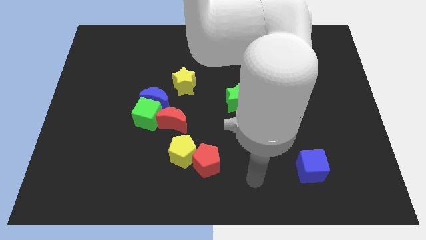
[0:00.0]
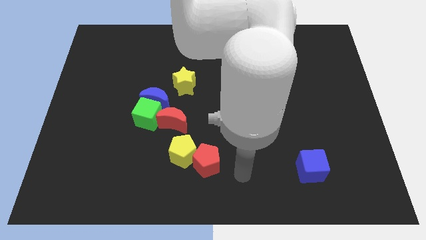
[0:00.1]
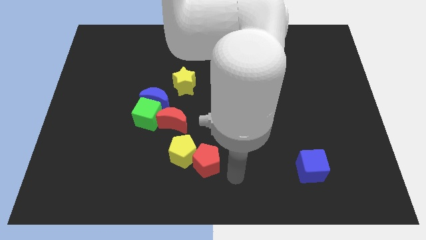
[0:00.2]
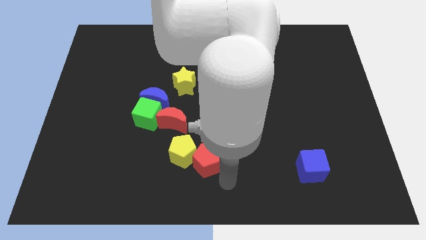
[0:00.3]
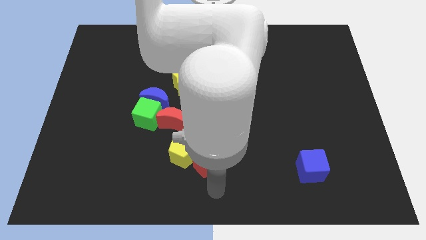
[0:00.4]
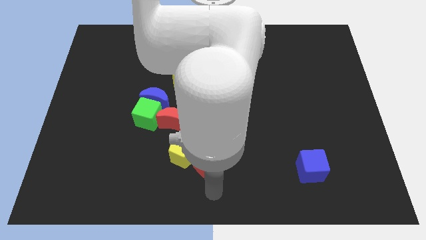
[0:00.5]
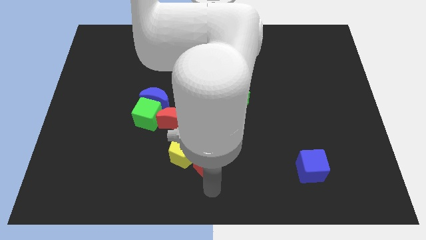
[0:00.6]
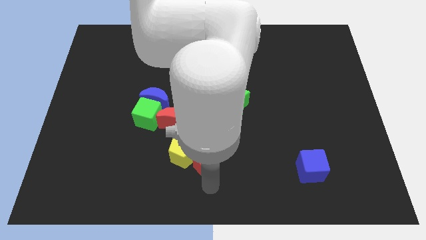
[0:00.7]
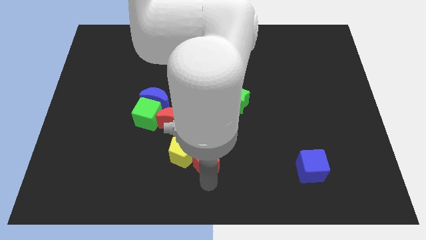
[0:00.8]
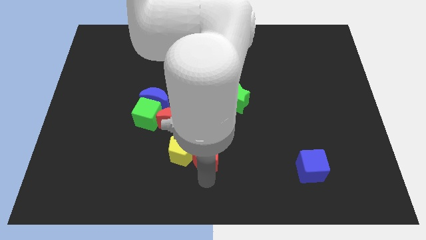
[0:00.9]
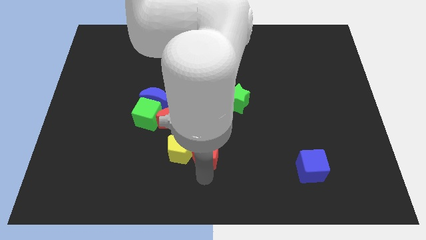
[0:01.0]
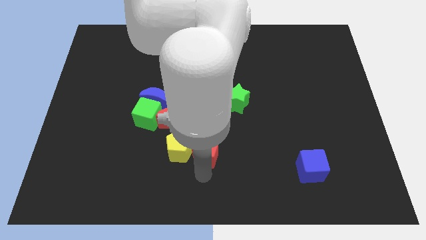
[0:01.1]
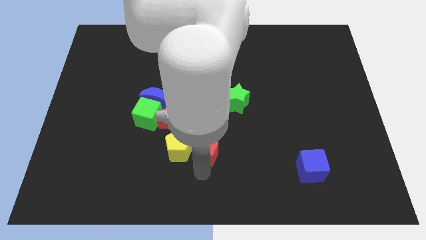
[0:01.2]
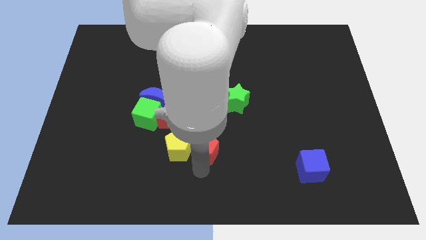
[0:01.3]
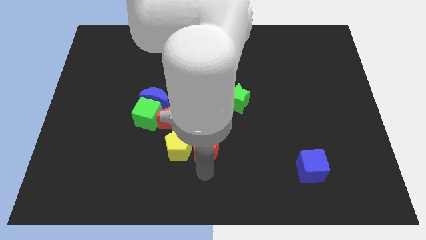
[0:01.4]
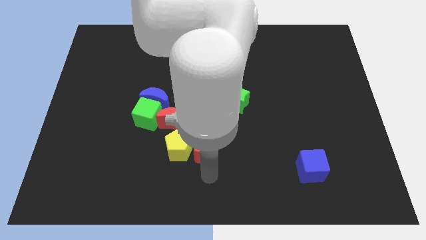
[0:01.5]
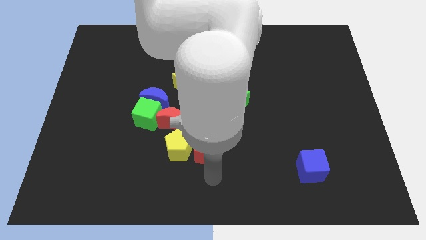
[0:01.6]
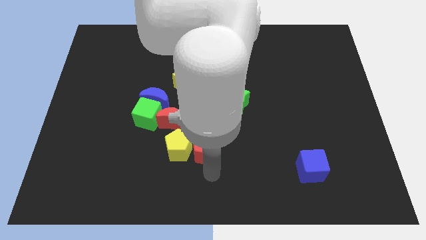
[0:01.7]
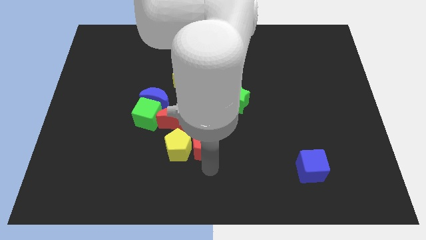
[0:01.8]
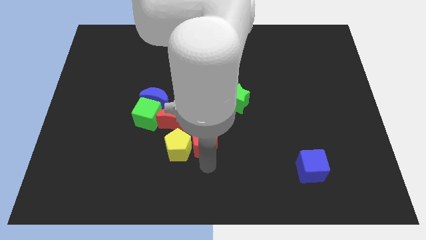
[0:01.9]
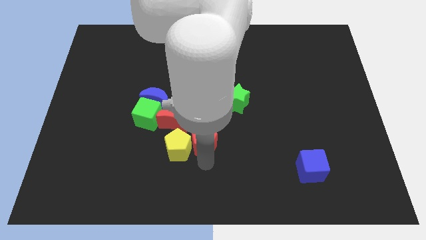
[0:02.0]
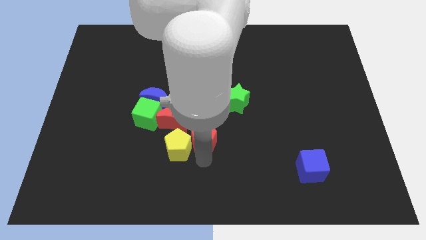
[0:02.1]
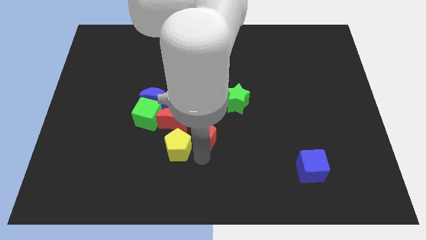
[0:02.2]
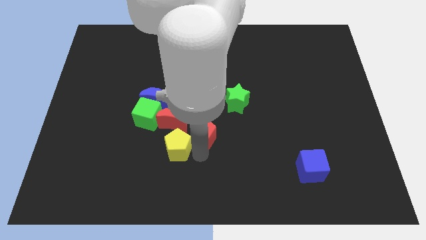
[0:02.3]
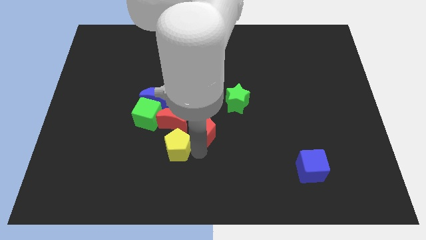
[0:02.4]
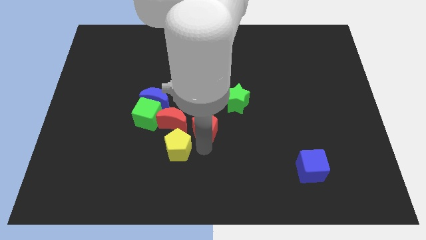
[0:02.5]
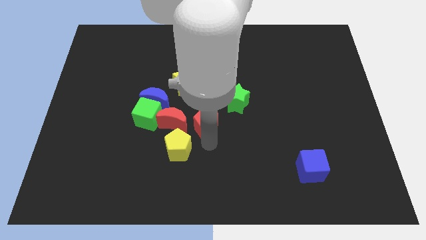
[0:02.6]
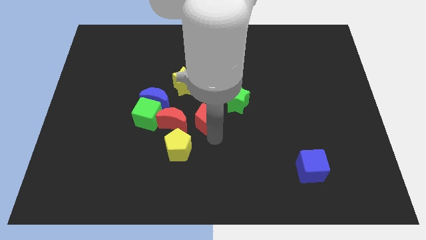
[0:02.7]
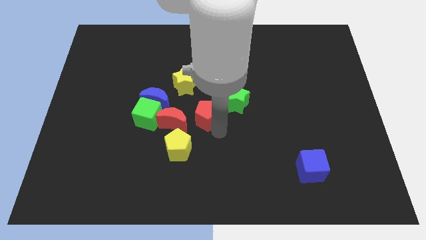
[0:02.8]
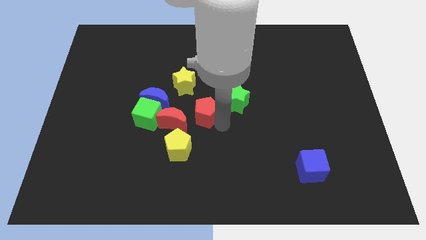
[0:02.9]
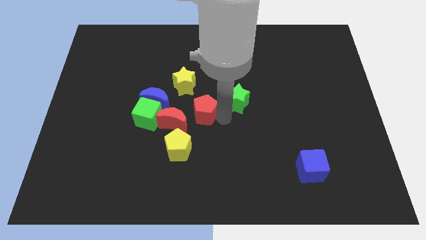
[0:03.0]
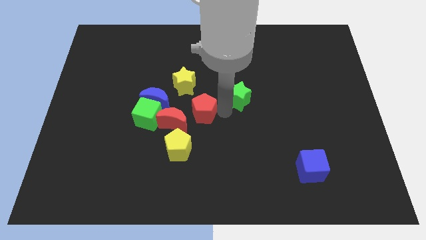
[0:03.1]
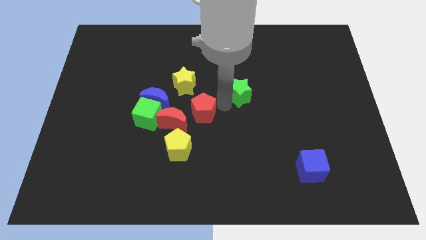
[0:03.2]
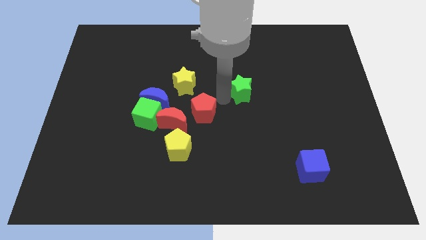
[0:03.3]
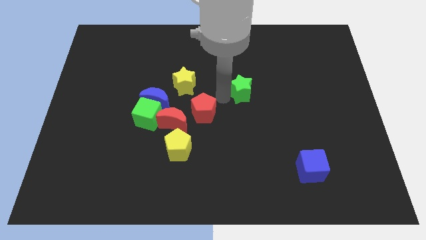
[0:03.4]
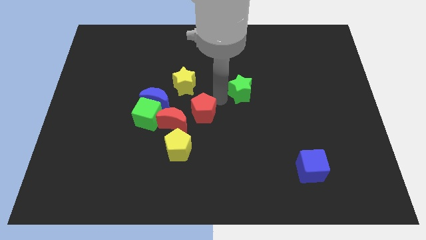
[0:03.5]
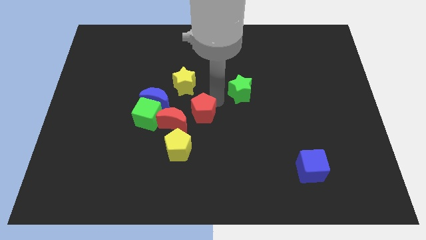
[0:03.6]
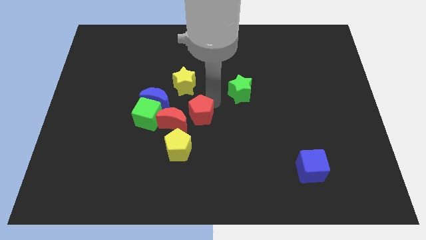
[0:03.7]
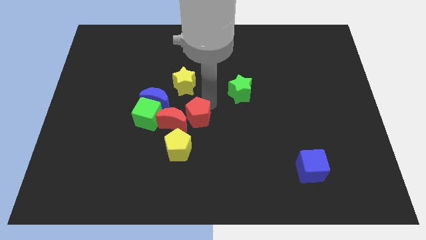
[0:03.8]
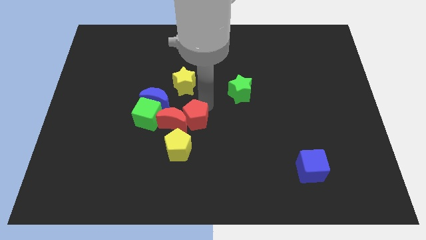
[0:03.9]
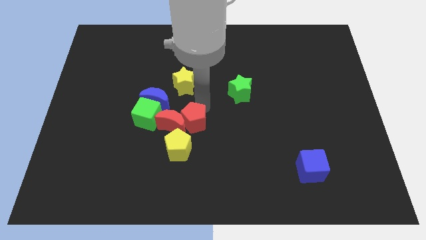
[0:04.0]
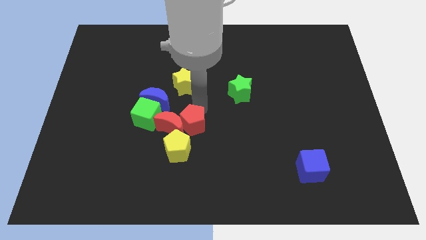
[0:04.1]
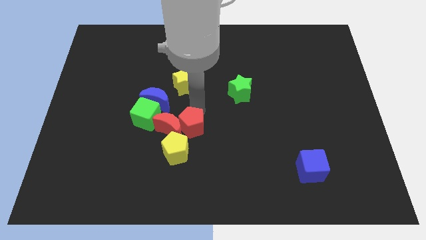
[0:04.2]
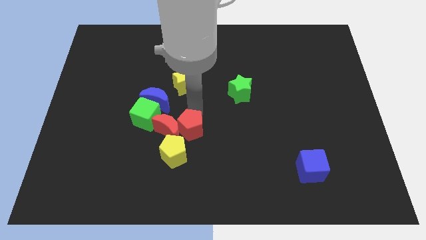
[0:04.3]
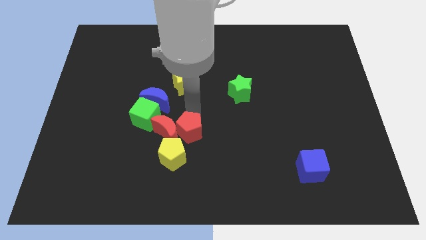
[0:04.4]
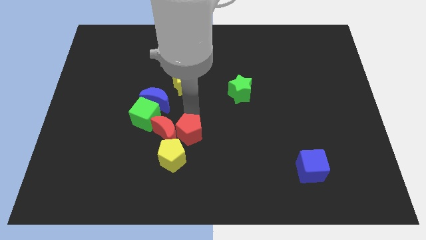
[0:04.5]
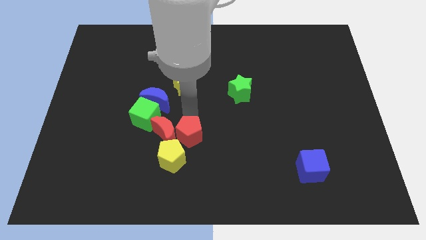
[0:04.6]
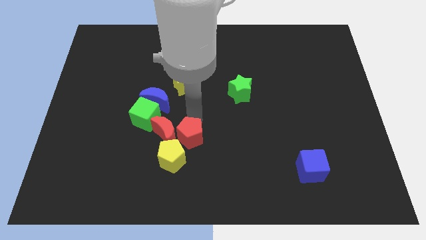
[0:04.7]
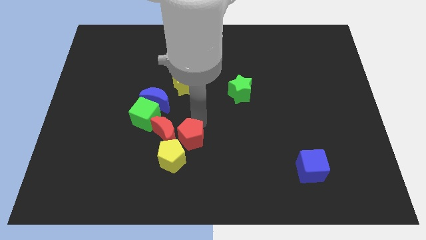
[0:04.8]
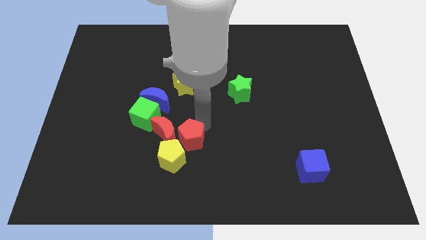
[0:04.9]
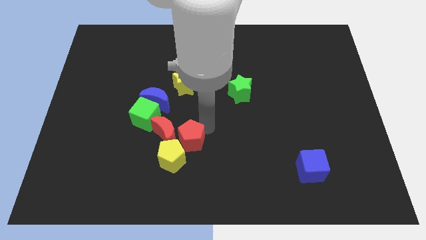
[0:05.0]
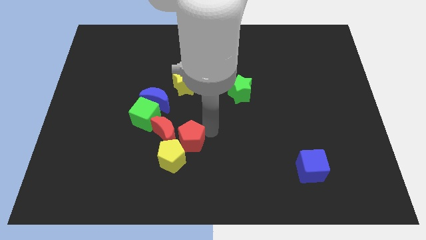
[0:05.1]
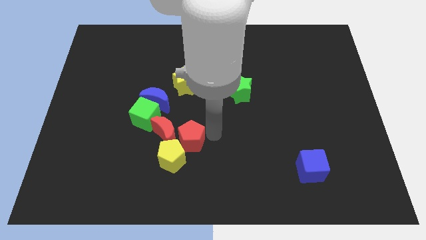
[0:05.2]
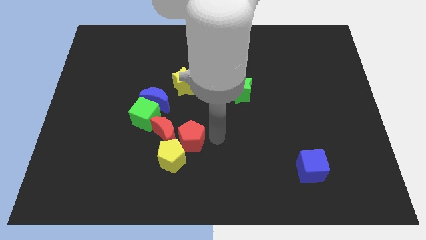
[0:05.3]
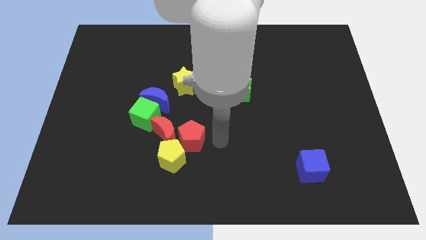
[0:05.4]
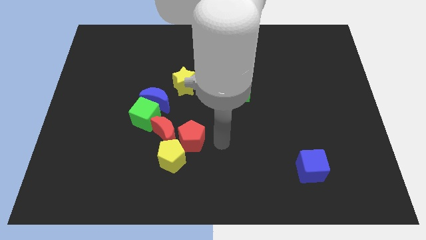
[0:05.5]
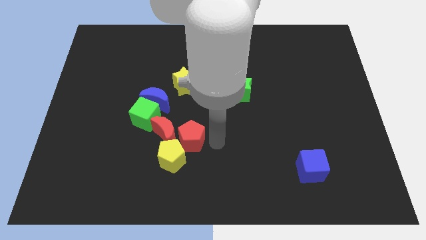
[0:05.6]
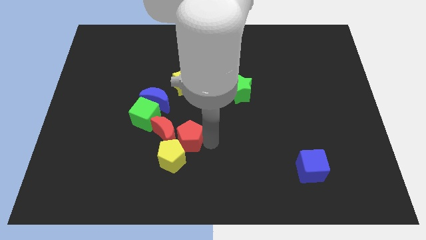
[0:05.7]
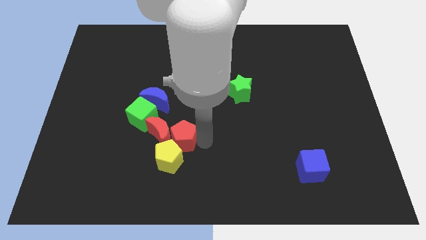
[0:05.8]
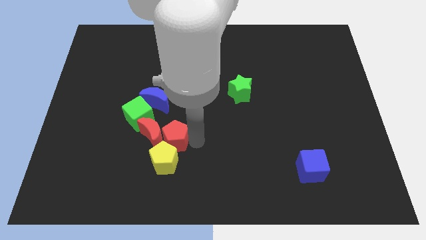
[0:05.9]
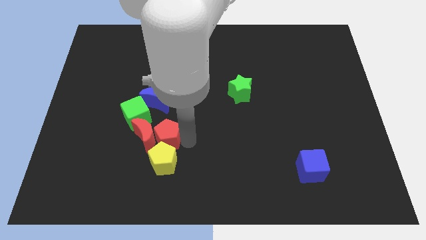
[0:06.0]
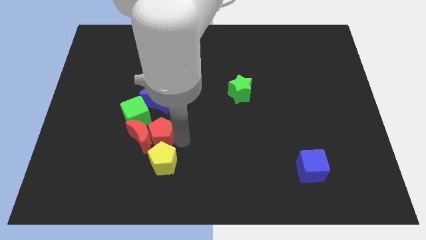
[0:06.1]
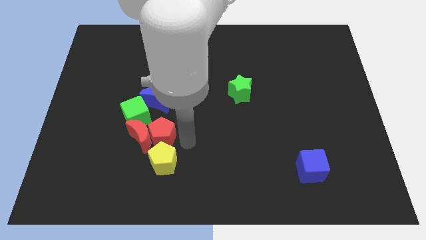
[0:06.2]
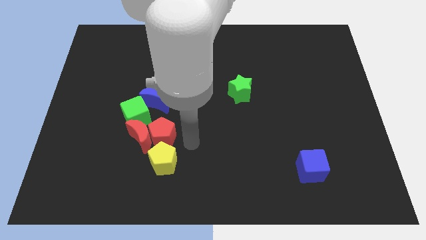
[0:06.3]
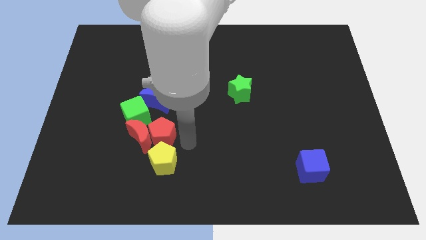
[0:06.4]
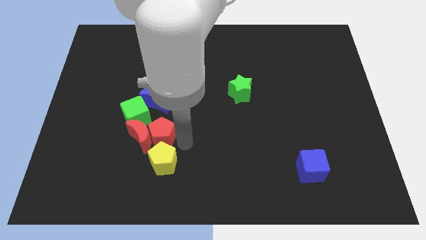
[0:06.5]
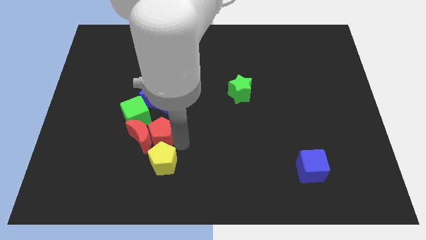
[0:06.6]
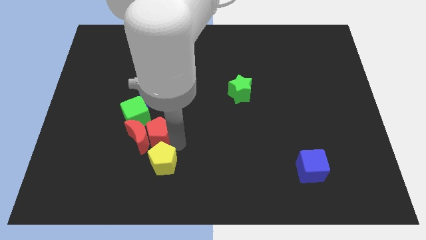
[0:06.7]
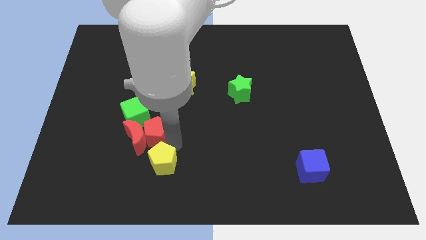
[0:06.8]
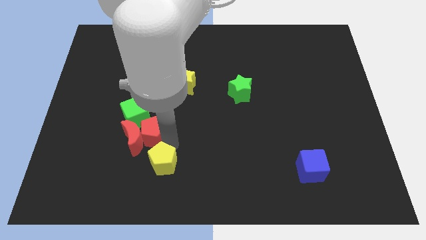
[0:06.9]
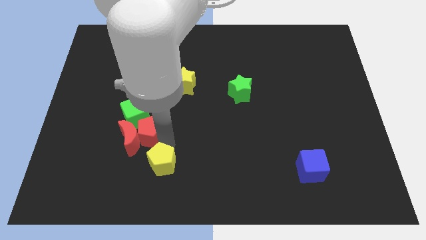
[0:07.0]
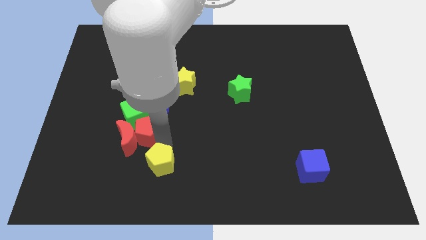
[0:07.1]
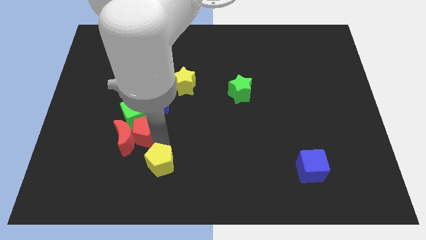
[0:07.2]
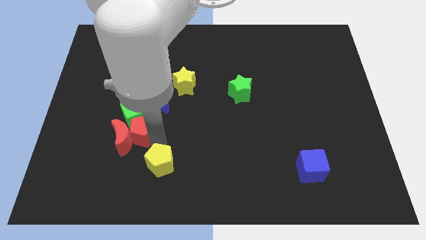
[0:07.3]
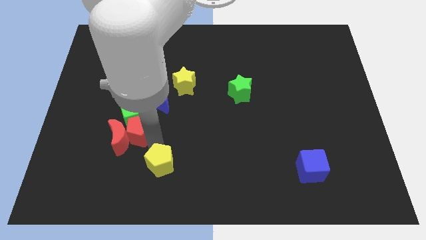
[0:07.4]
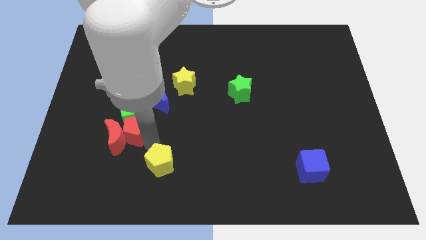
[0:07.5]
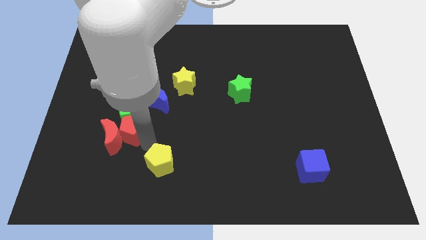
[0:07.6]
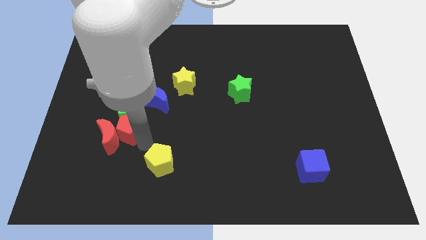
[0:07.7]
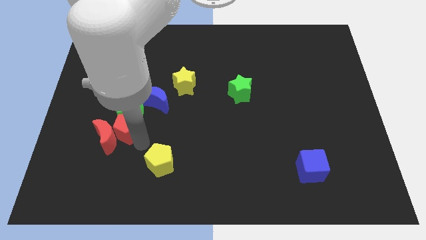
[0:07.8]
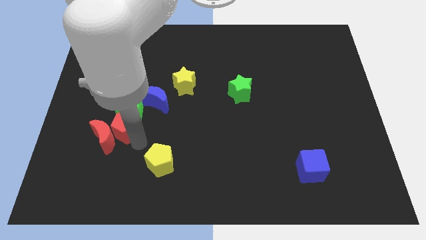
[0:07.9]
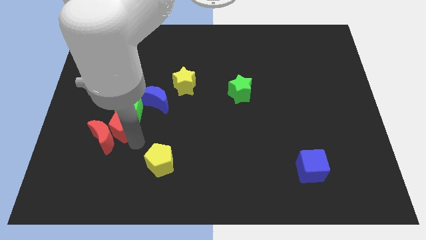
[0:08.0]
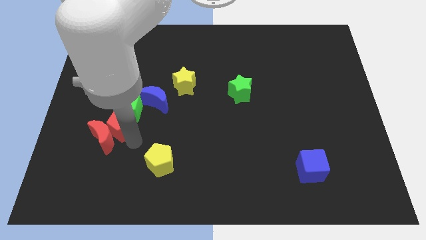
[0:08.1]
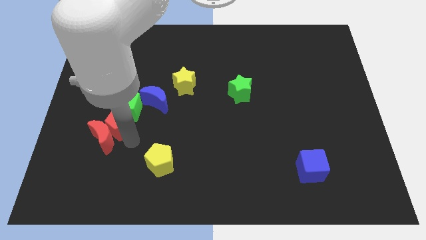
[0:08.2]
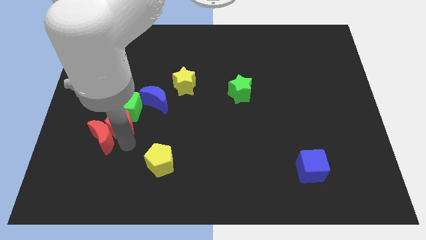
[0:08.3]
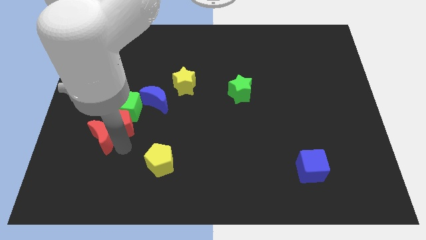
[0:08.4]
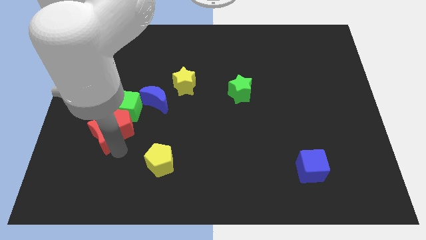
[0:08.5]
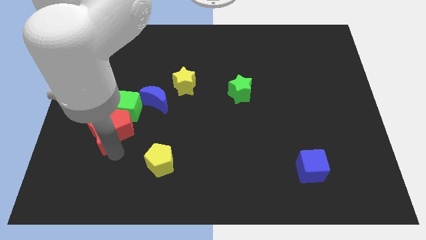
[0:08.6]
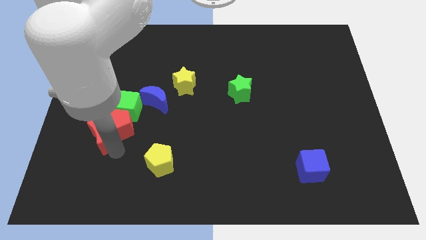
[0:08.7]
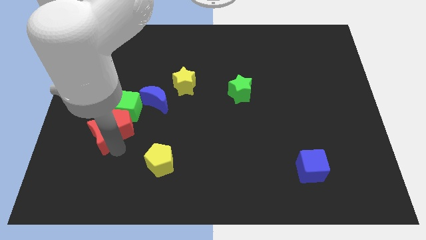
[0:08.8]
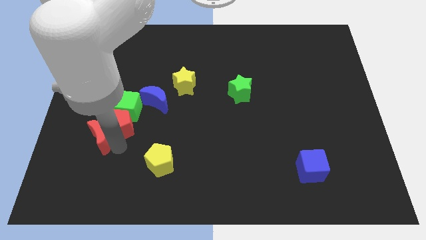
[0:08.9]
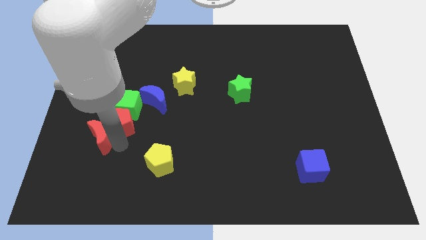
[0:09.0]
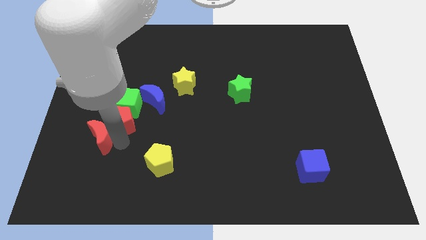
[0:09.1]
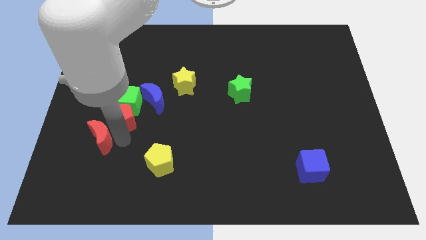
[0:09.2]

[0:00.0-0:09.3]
move the red pentagon up and then left
